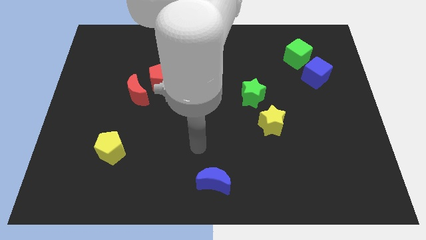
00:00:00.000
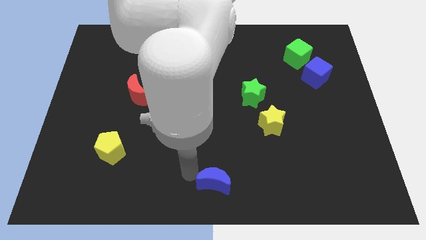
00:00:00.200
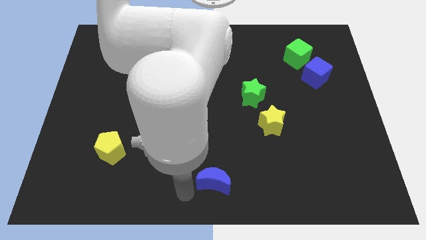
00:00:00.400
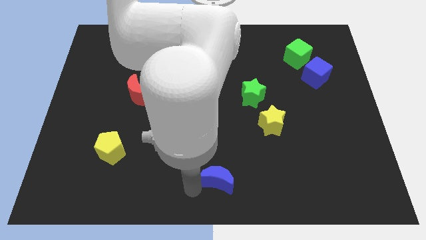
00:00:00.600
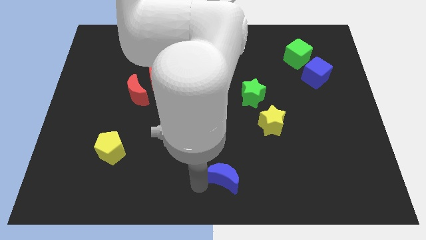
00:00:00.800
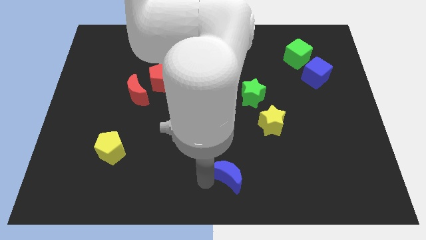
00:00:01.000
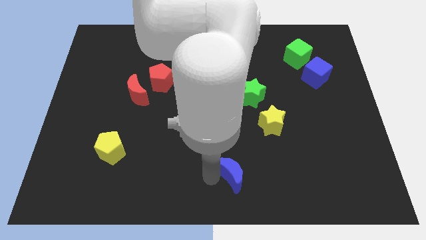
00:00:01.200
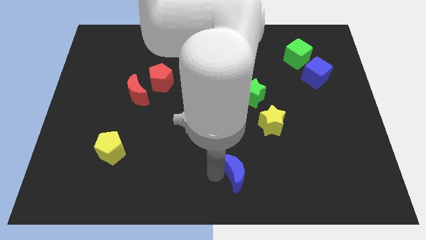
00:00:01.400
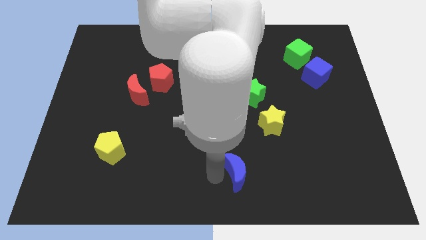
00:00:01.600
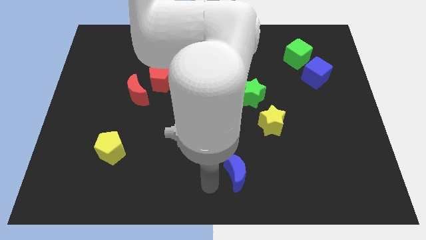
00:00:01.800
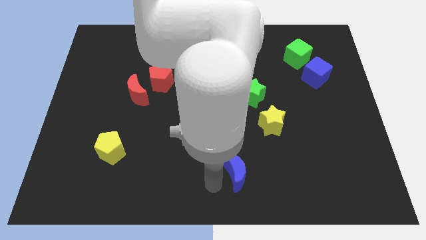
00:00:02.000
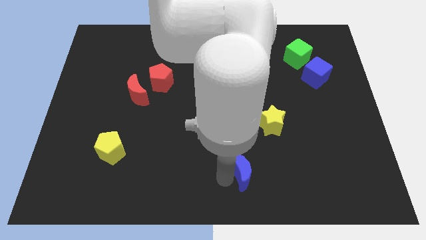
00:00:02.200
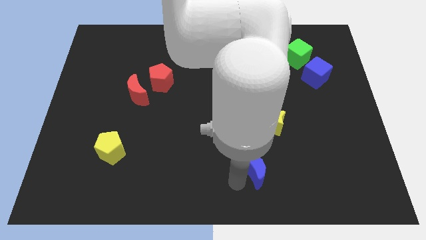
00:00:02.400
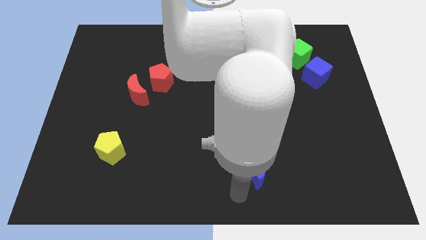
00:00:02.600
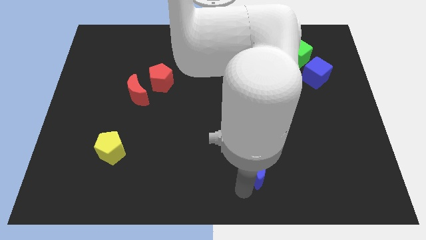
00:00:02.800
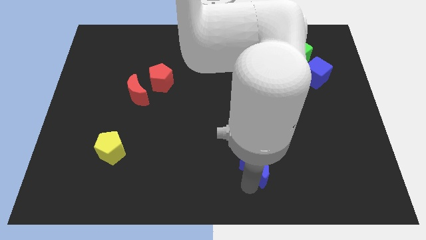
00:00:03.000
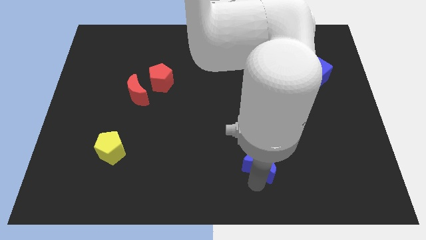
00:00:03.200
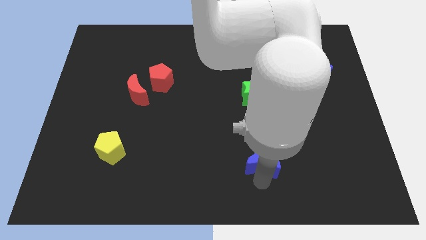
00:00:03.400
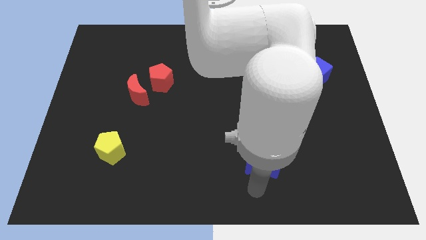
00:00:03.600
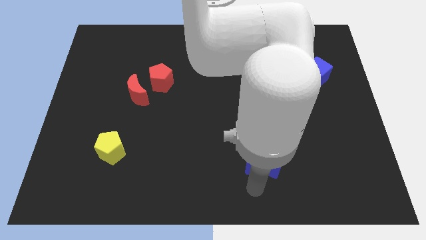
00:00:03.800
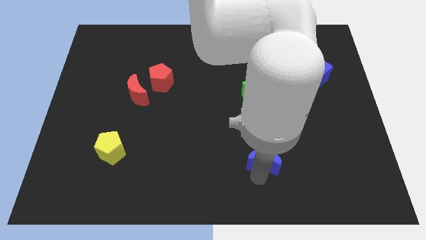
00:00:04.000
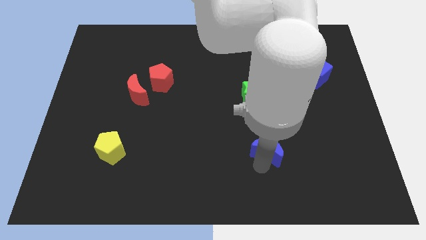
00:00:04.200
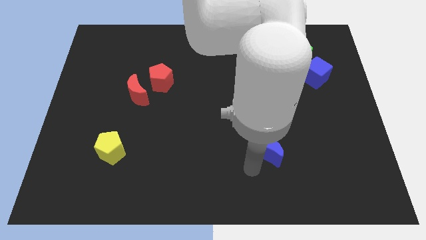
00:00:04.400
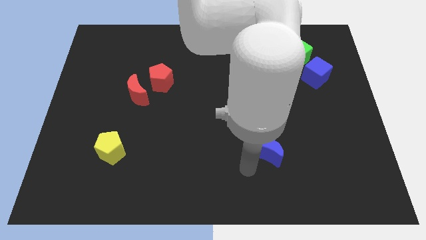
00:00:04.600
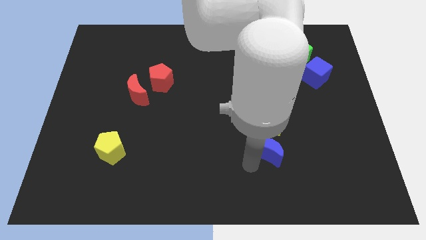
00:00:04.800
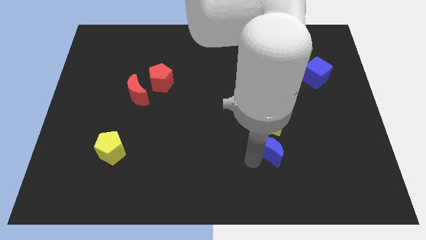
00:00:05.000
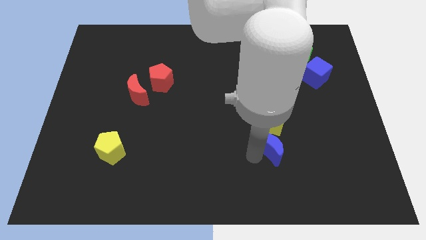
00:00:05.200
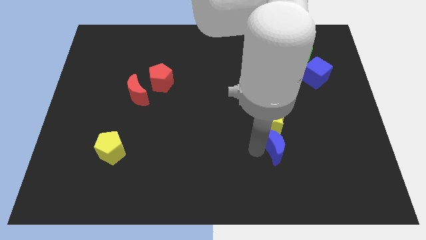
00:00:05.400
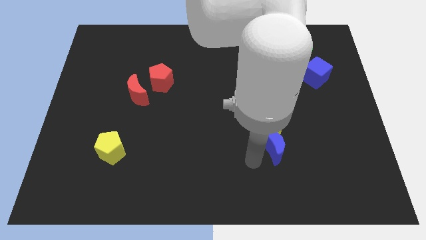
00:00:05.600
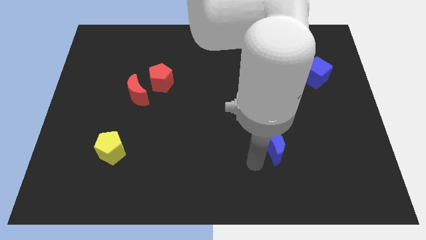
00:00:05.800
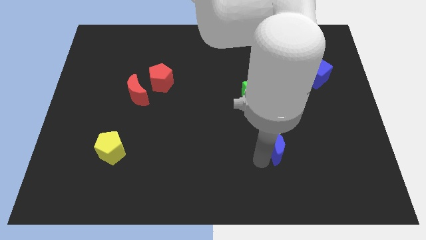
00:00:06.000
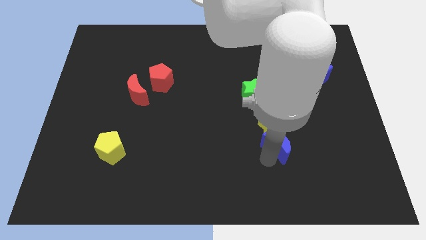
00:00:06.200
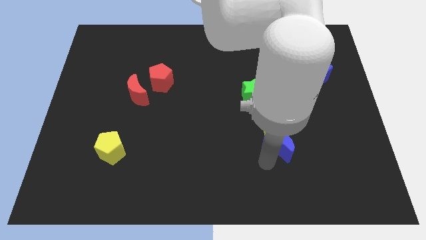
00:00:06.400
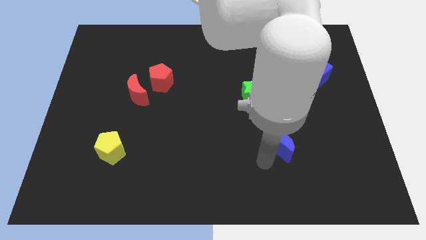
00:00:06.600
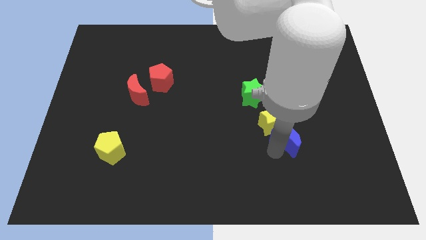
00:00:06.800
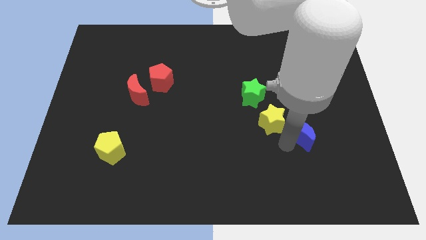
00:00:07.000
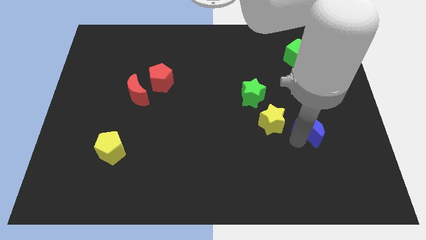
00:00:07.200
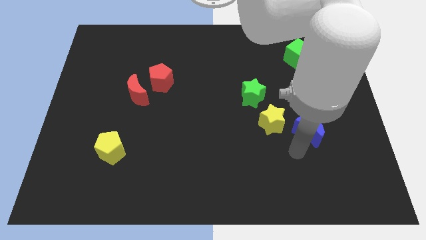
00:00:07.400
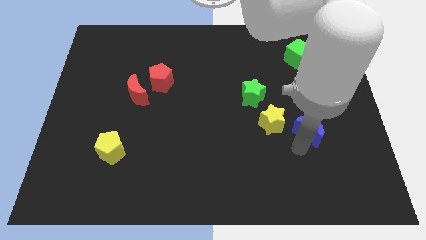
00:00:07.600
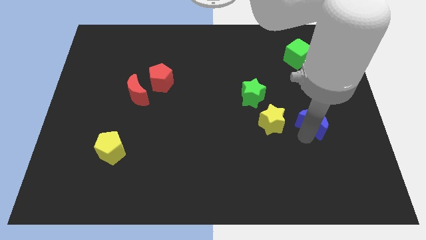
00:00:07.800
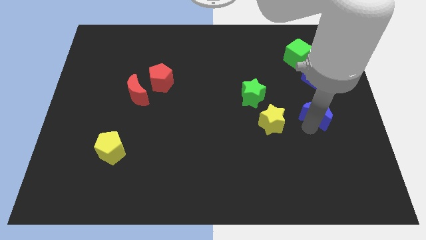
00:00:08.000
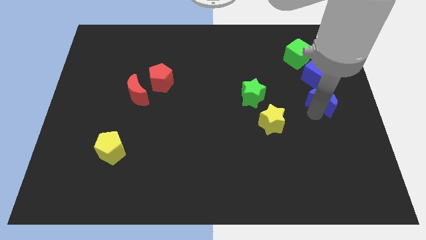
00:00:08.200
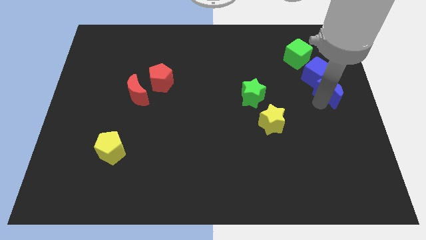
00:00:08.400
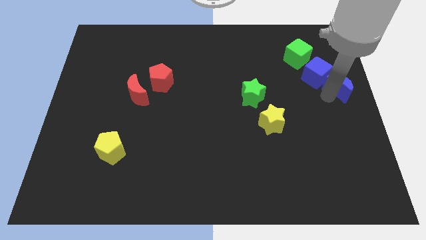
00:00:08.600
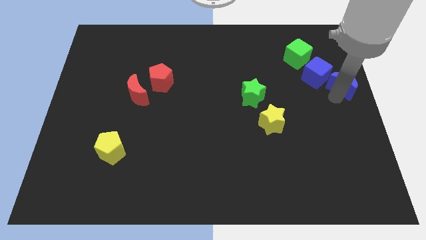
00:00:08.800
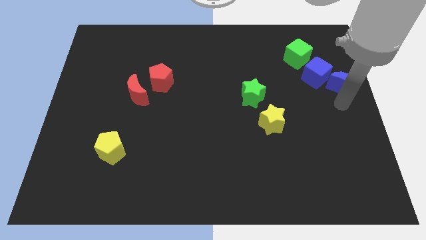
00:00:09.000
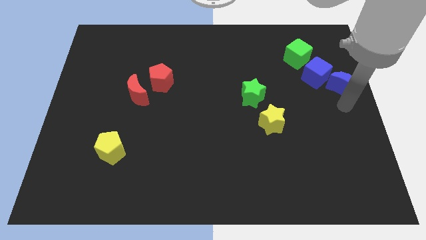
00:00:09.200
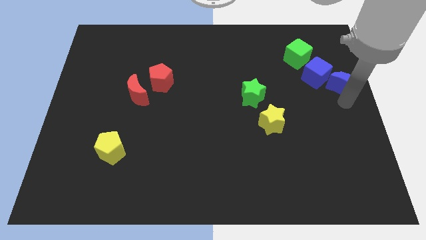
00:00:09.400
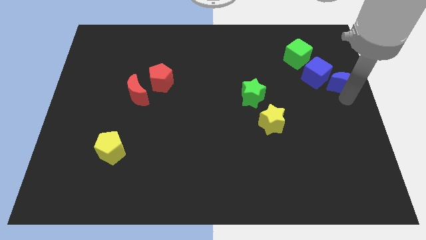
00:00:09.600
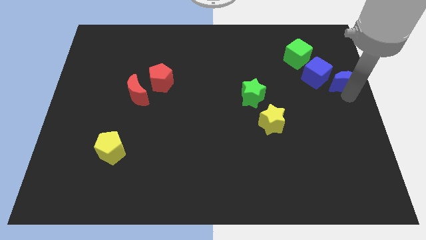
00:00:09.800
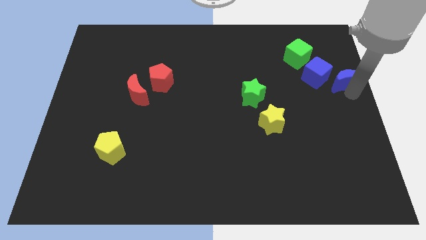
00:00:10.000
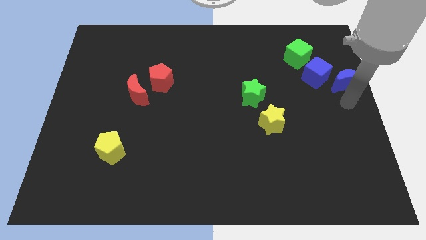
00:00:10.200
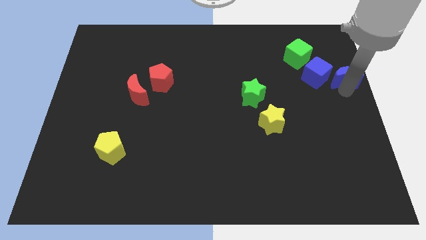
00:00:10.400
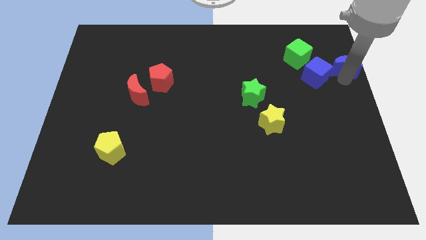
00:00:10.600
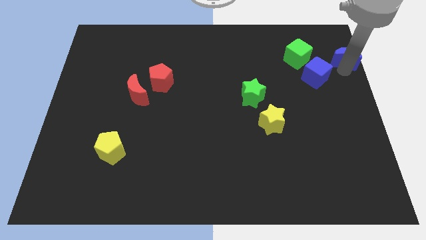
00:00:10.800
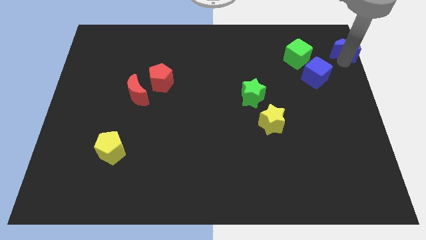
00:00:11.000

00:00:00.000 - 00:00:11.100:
move the blue moon to the top right

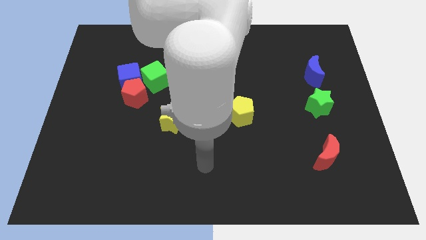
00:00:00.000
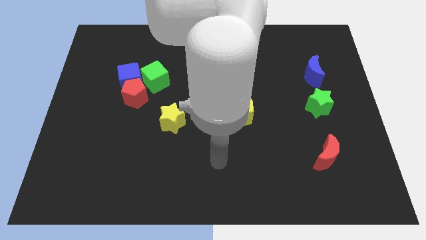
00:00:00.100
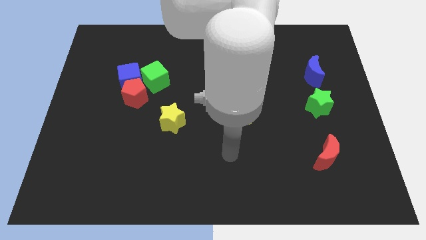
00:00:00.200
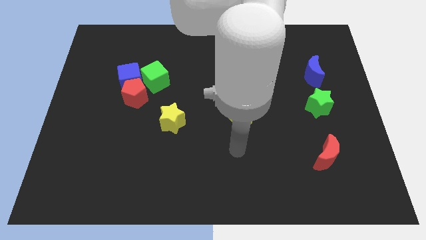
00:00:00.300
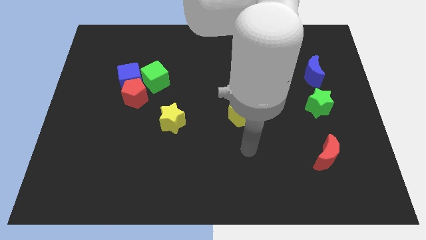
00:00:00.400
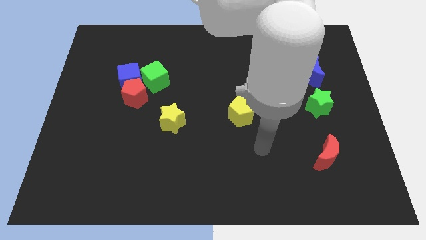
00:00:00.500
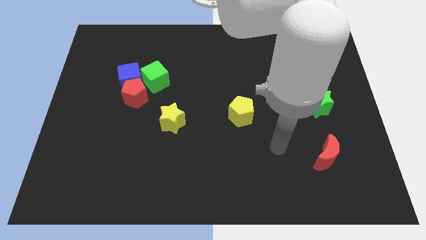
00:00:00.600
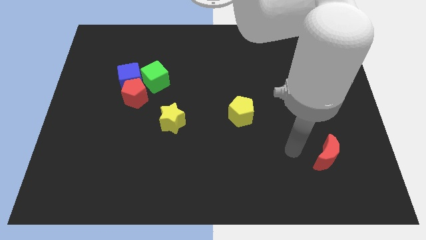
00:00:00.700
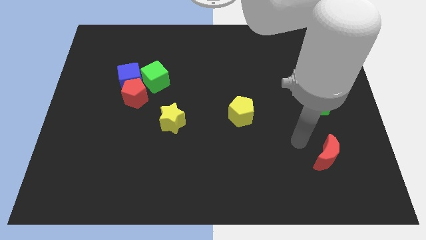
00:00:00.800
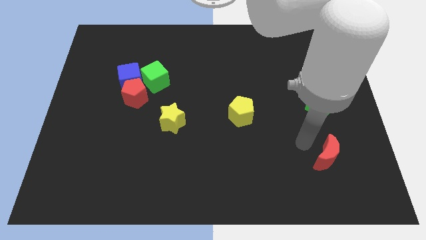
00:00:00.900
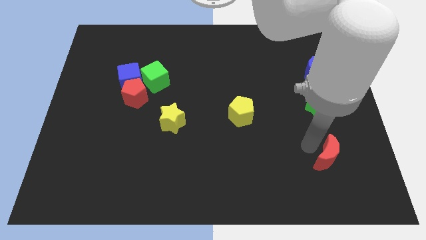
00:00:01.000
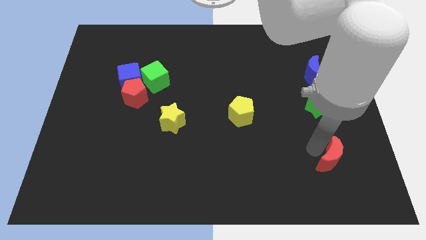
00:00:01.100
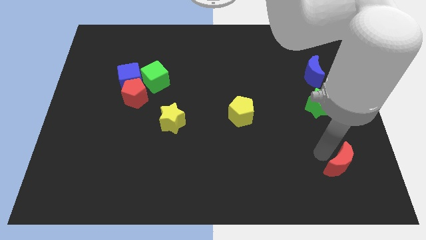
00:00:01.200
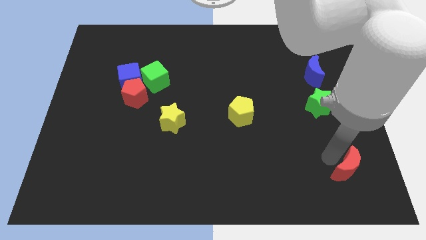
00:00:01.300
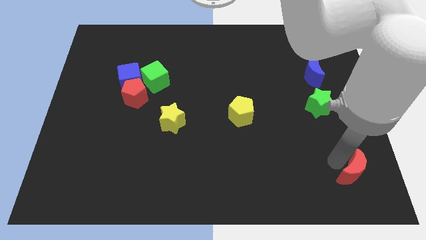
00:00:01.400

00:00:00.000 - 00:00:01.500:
slide the red moon to the lower right corner

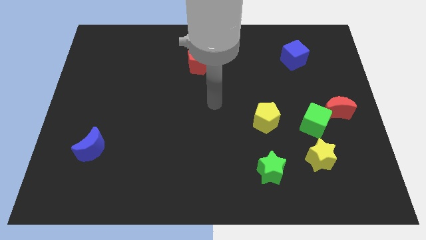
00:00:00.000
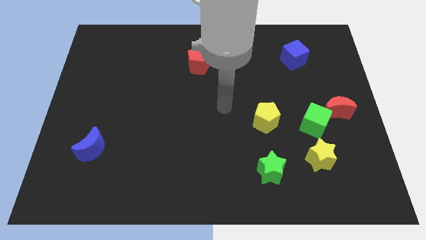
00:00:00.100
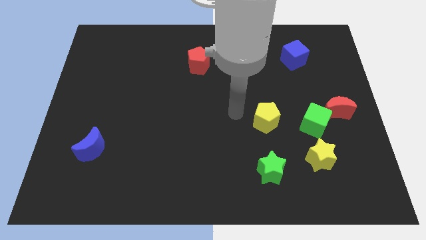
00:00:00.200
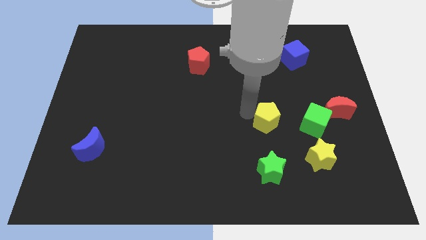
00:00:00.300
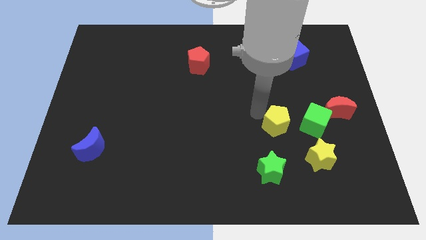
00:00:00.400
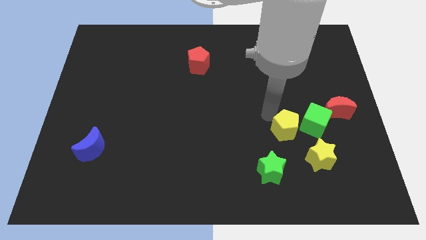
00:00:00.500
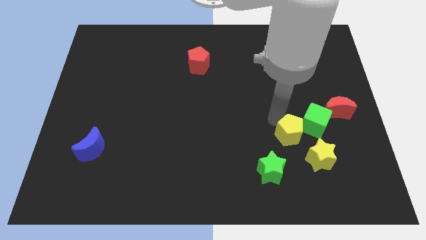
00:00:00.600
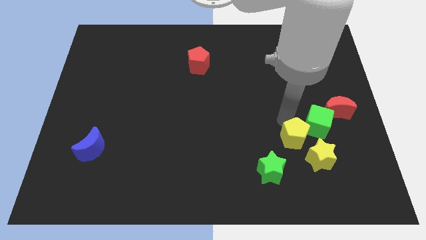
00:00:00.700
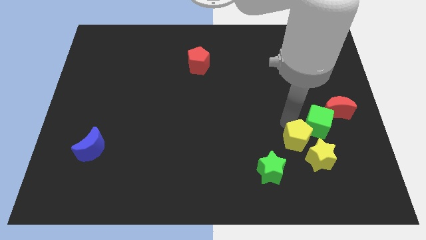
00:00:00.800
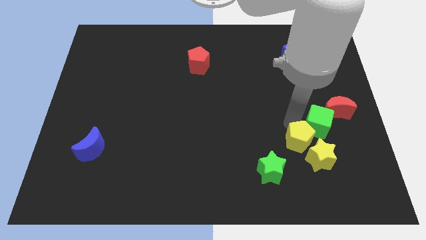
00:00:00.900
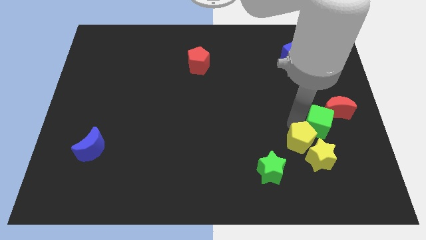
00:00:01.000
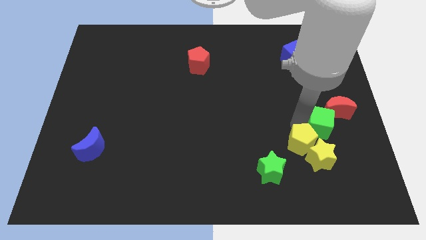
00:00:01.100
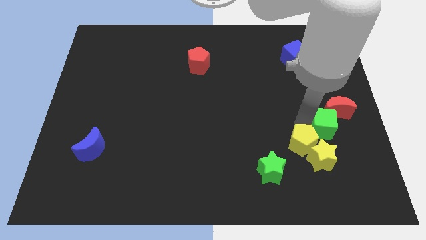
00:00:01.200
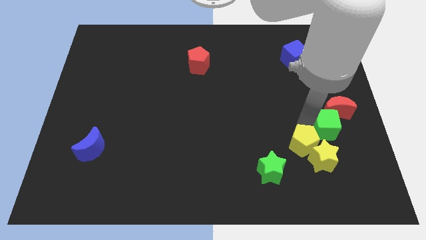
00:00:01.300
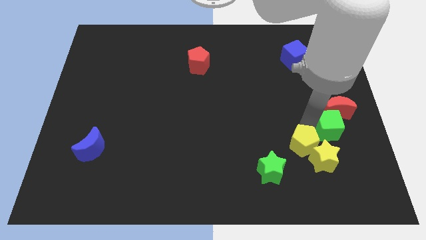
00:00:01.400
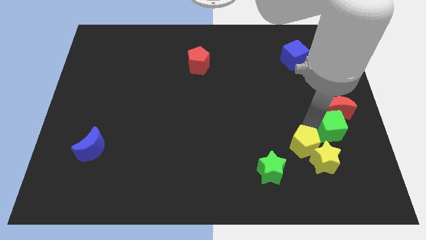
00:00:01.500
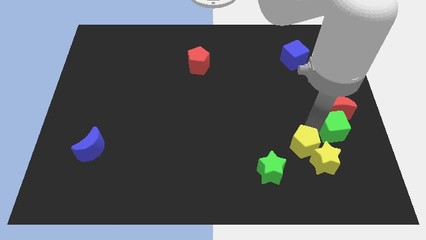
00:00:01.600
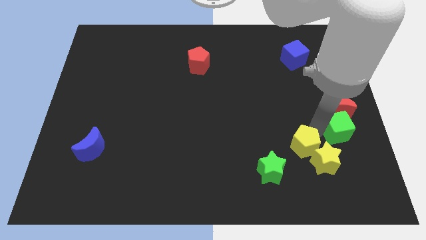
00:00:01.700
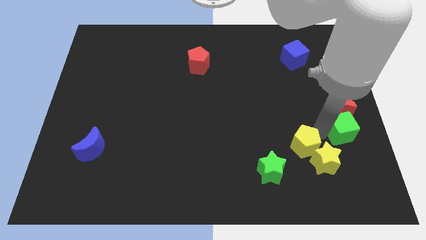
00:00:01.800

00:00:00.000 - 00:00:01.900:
put the green cube to the center right
